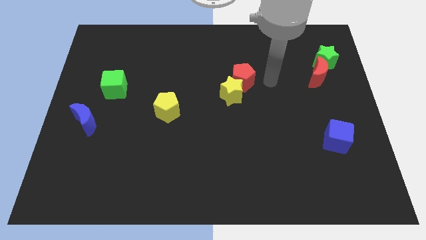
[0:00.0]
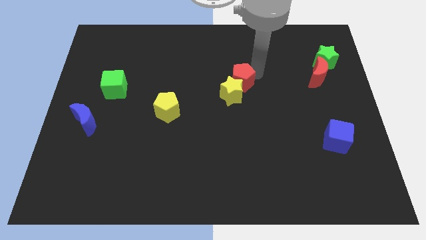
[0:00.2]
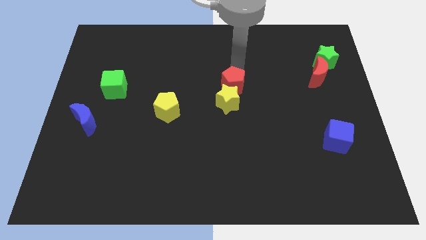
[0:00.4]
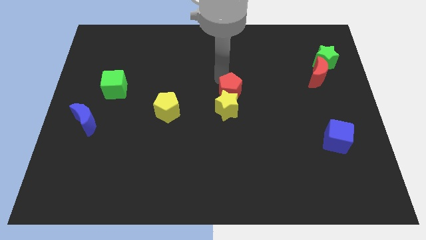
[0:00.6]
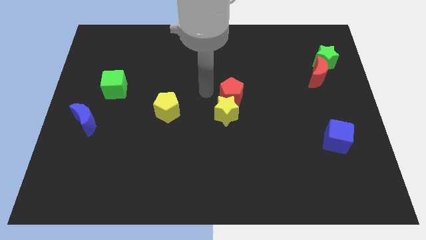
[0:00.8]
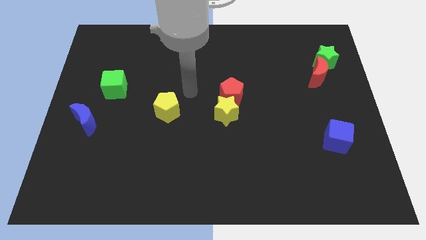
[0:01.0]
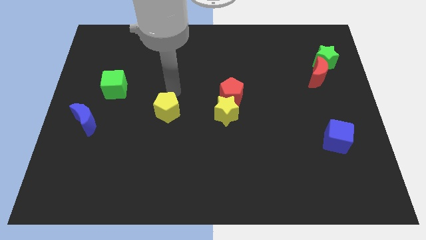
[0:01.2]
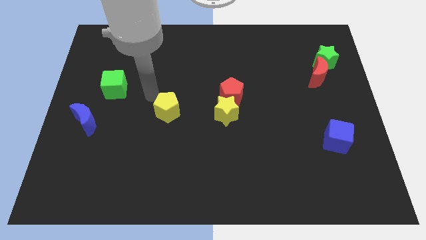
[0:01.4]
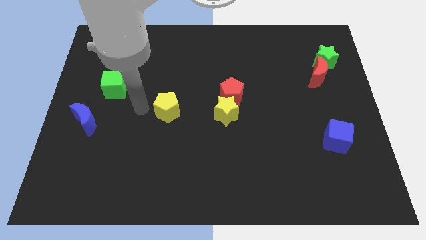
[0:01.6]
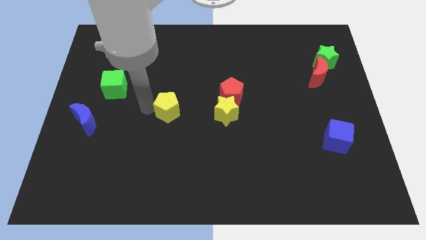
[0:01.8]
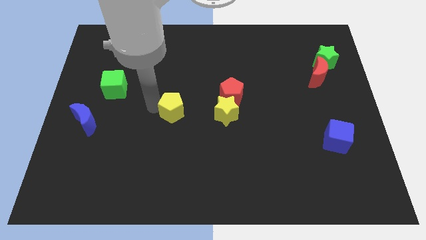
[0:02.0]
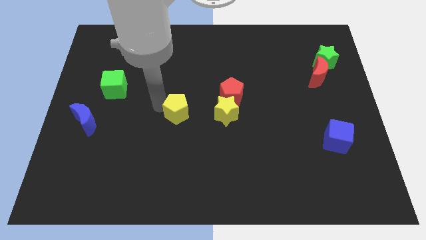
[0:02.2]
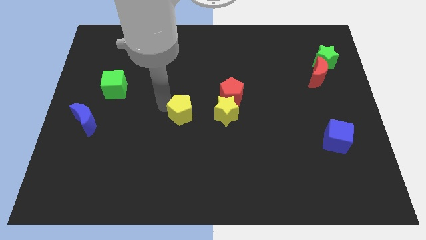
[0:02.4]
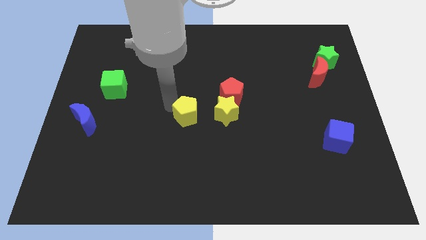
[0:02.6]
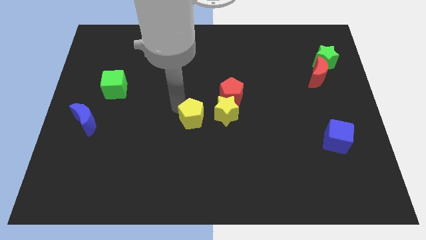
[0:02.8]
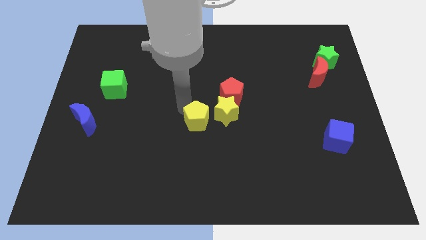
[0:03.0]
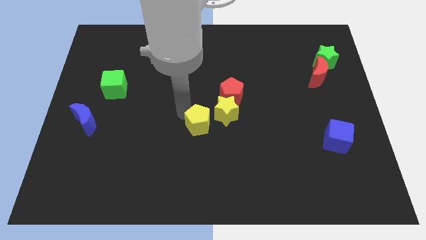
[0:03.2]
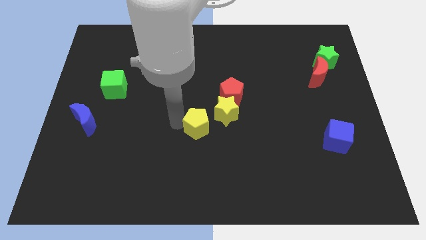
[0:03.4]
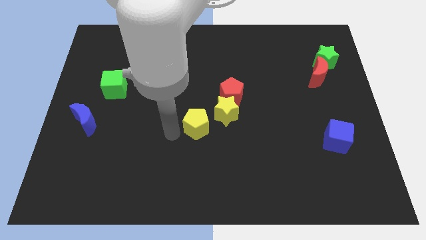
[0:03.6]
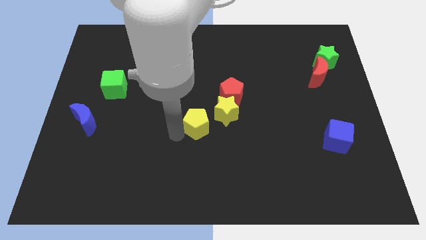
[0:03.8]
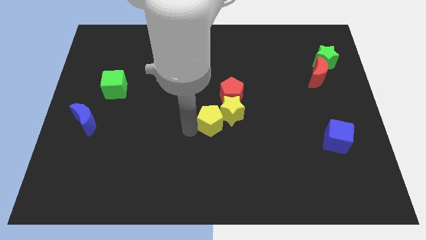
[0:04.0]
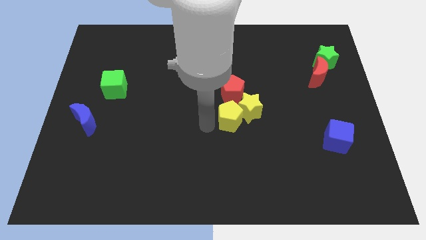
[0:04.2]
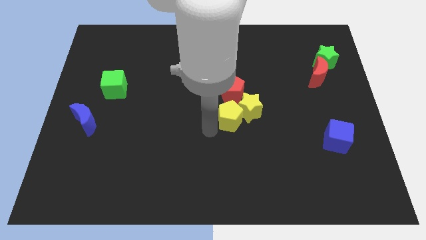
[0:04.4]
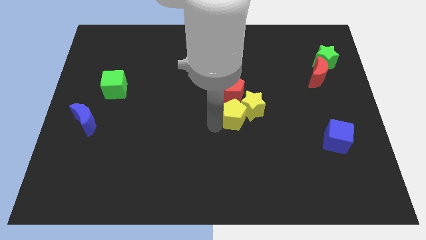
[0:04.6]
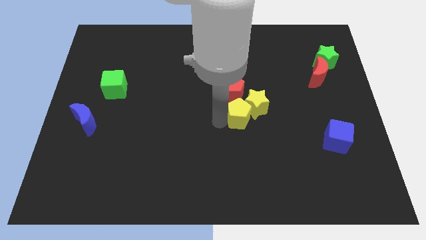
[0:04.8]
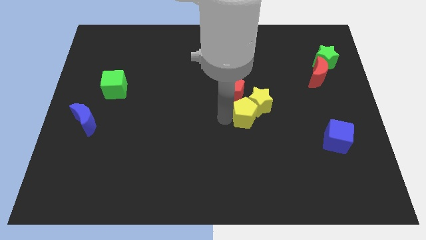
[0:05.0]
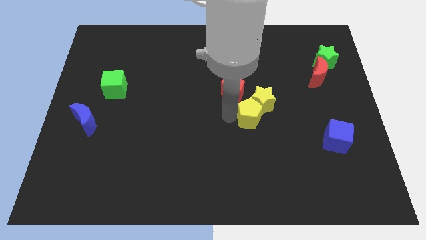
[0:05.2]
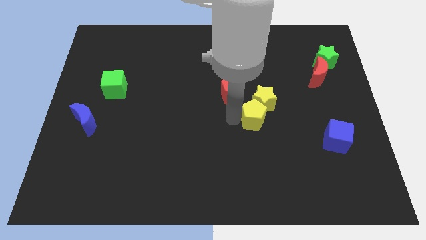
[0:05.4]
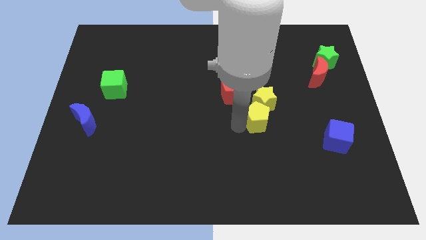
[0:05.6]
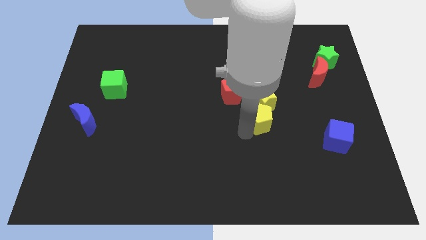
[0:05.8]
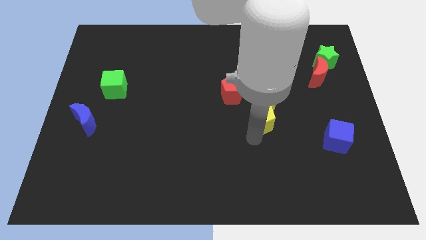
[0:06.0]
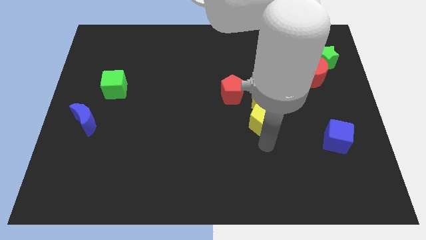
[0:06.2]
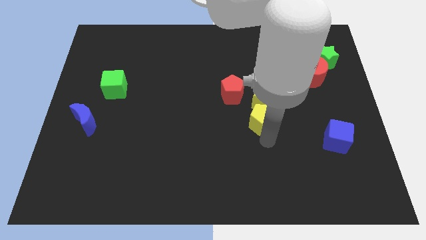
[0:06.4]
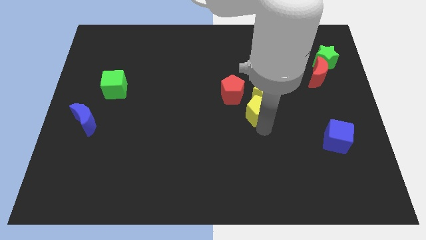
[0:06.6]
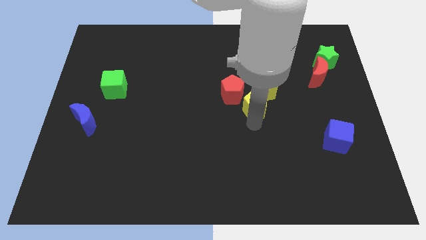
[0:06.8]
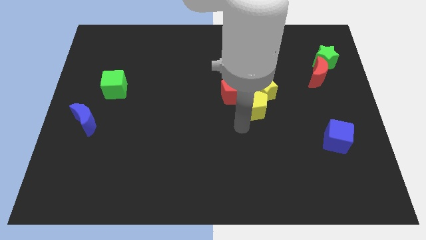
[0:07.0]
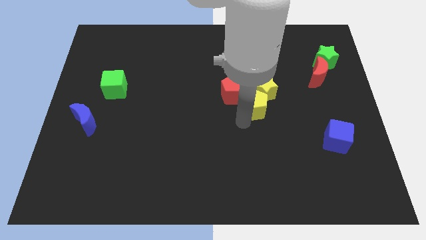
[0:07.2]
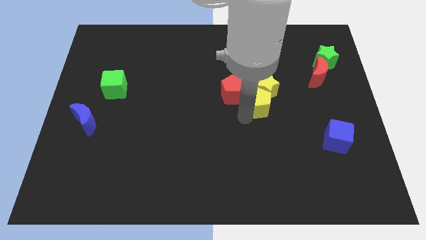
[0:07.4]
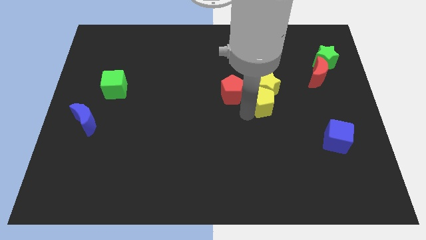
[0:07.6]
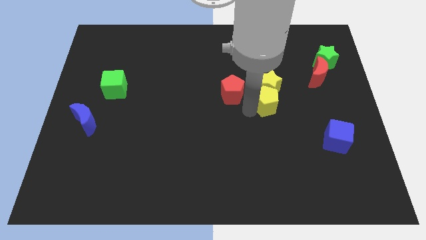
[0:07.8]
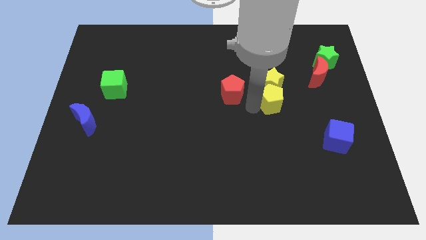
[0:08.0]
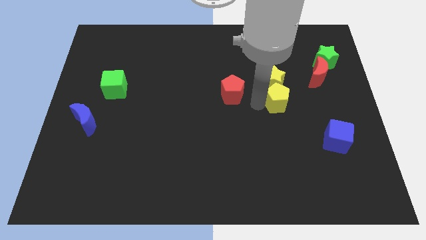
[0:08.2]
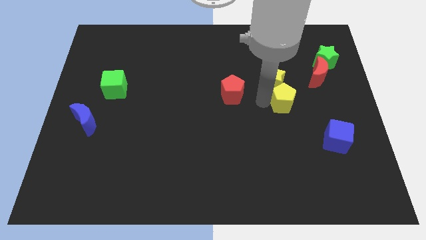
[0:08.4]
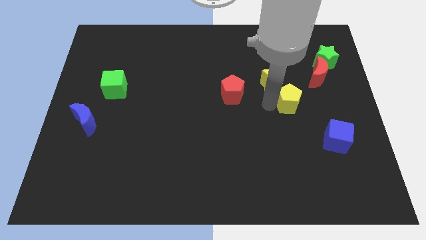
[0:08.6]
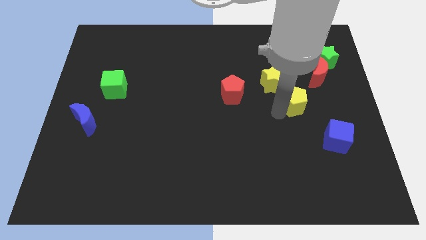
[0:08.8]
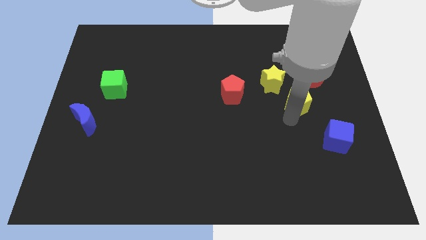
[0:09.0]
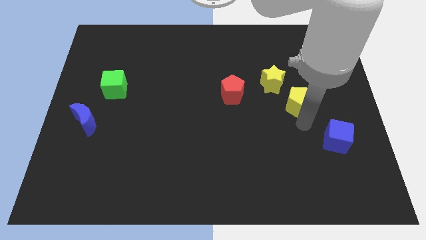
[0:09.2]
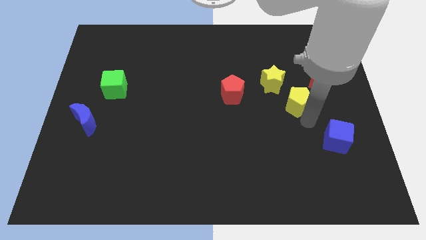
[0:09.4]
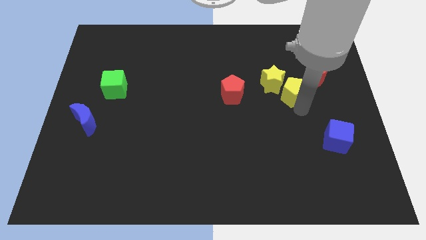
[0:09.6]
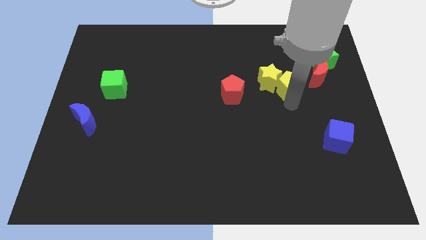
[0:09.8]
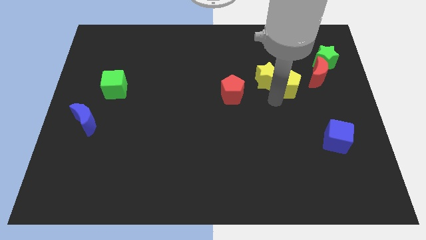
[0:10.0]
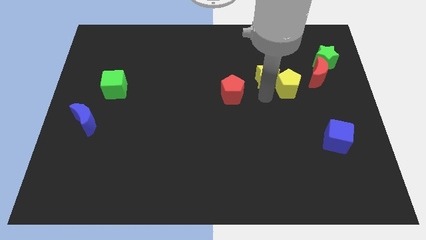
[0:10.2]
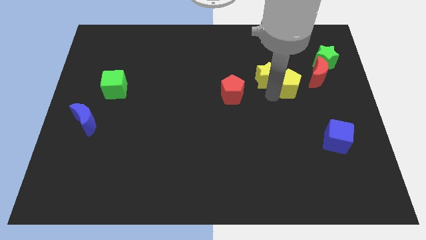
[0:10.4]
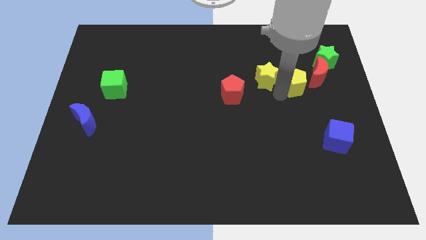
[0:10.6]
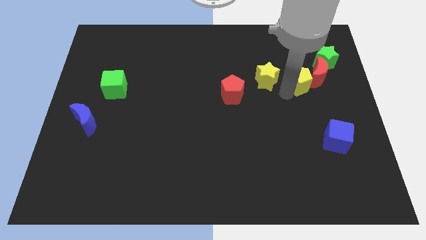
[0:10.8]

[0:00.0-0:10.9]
push the yellow pentagon to the red moon

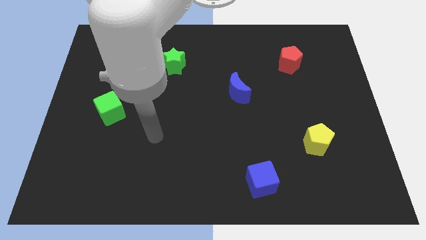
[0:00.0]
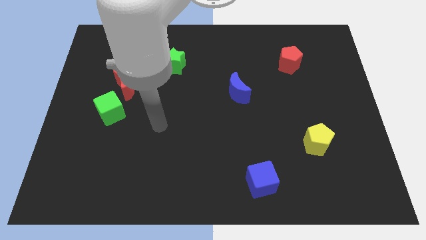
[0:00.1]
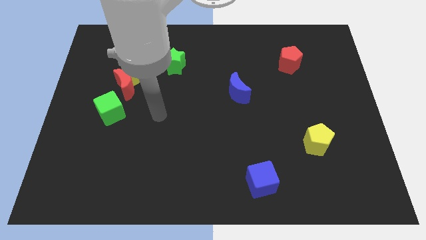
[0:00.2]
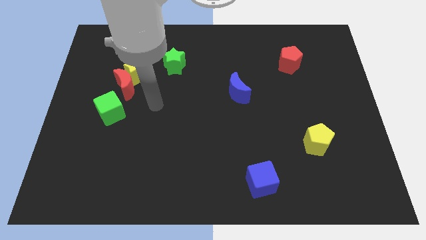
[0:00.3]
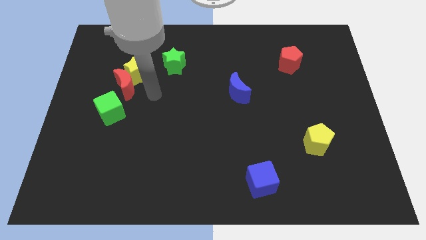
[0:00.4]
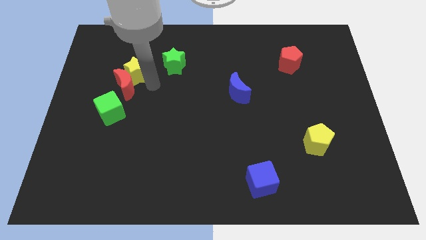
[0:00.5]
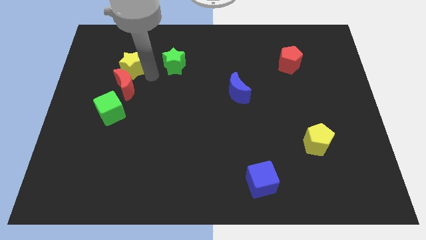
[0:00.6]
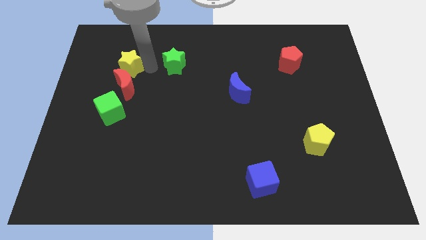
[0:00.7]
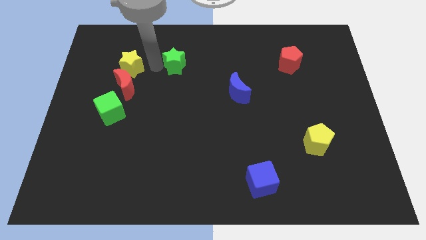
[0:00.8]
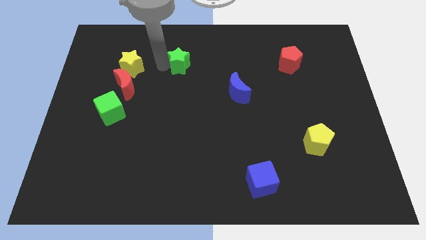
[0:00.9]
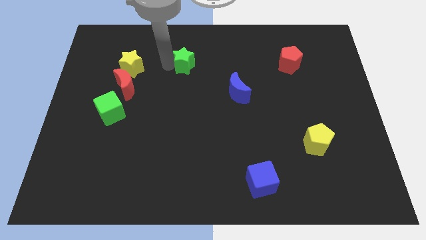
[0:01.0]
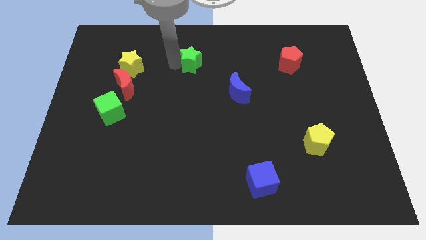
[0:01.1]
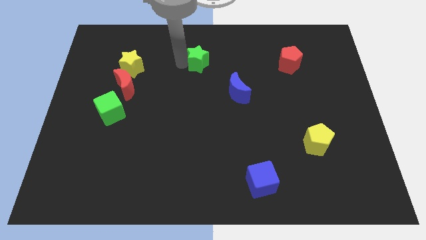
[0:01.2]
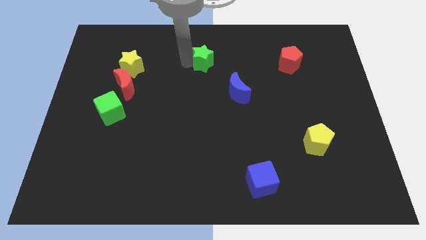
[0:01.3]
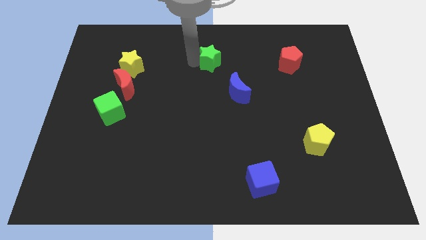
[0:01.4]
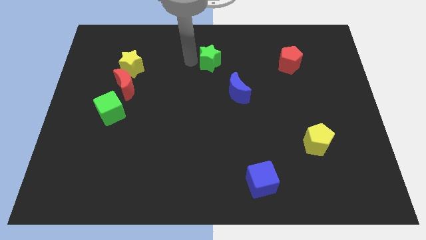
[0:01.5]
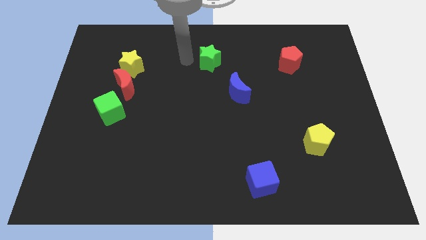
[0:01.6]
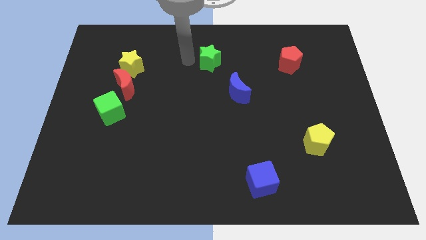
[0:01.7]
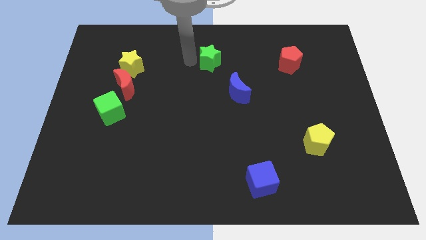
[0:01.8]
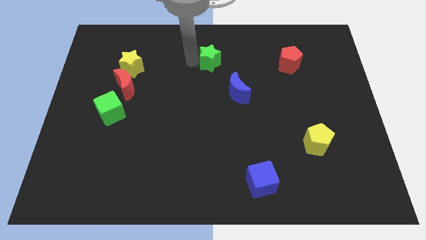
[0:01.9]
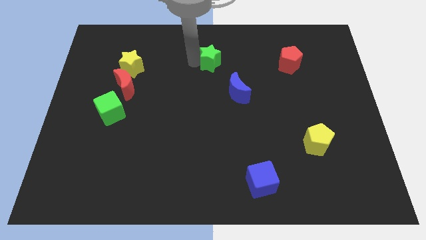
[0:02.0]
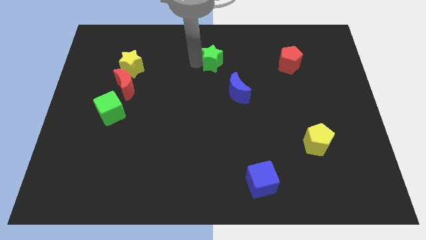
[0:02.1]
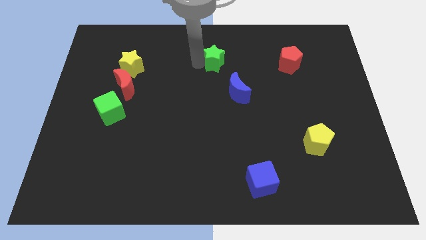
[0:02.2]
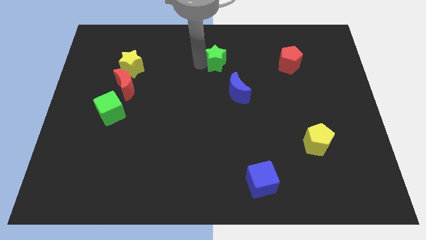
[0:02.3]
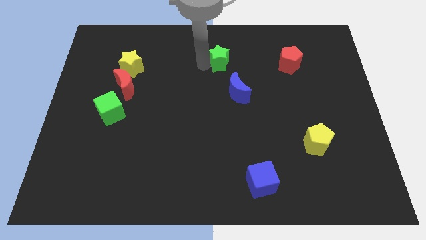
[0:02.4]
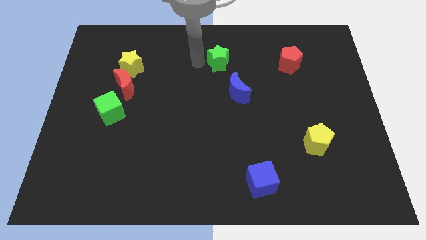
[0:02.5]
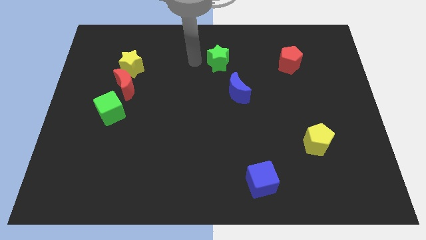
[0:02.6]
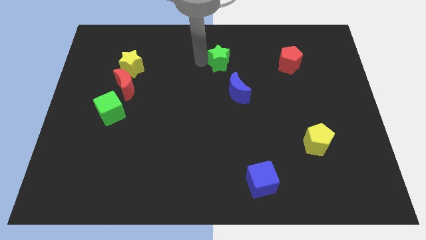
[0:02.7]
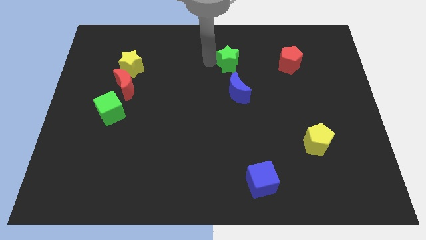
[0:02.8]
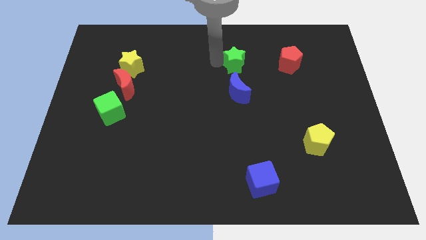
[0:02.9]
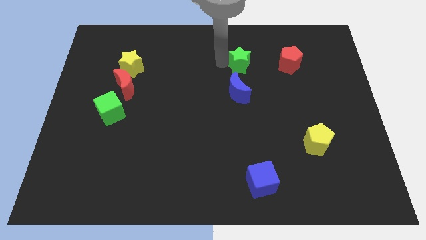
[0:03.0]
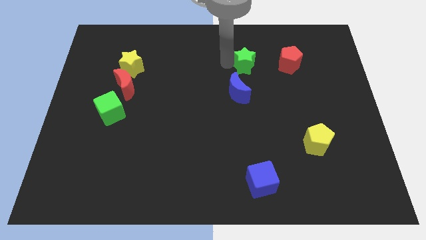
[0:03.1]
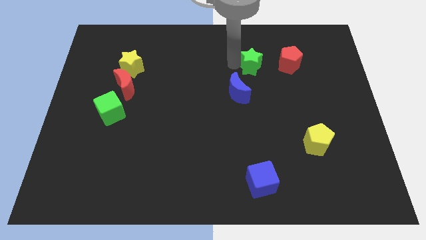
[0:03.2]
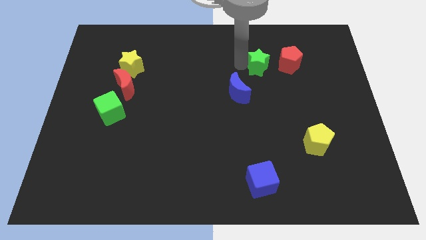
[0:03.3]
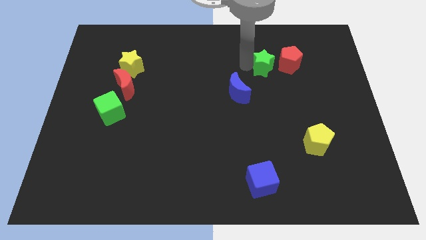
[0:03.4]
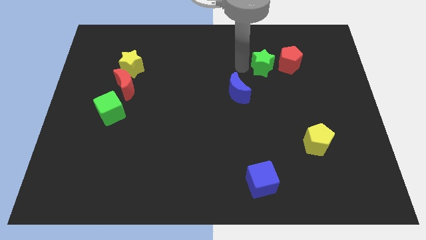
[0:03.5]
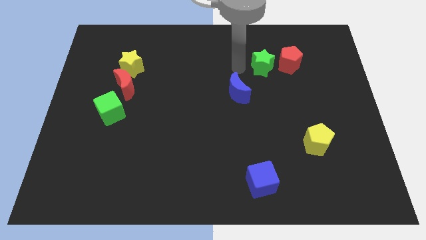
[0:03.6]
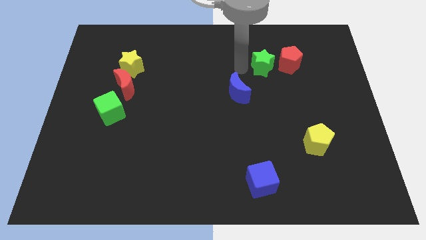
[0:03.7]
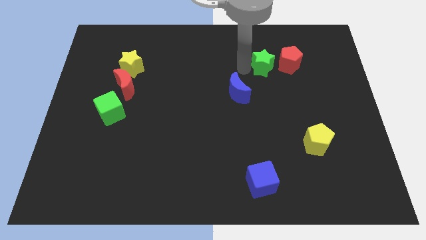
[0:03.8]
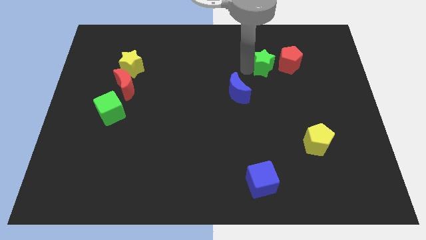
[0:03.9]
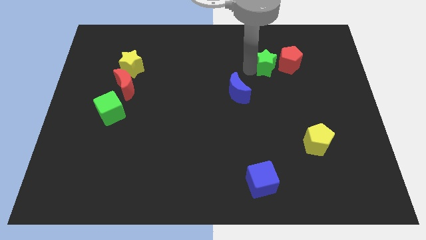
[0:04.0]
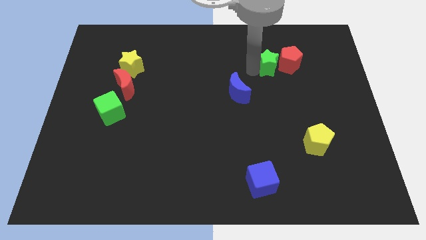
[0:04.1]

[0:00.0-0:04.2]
slide the green star to the red pentagon
